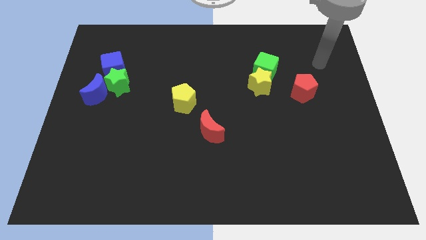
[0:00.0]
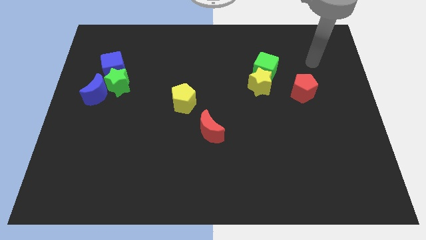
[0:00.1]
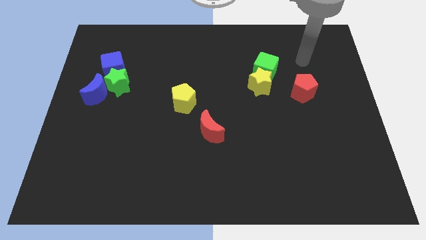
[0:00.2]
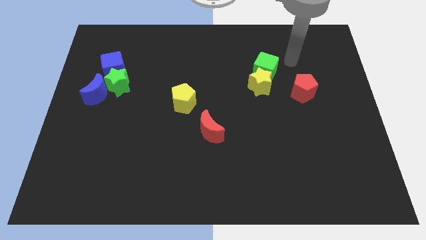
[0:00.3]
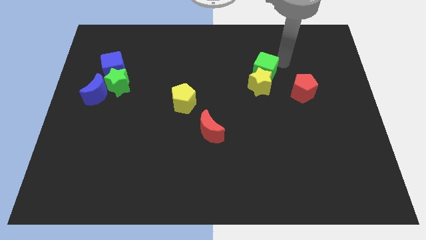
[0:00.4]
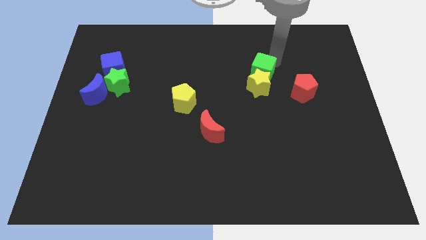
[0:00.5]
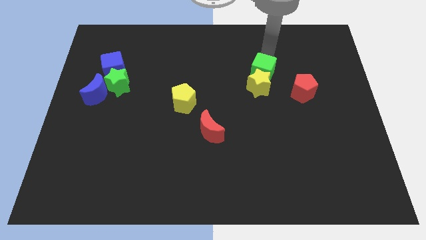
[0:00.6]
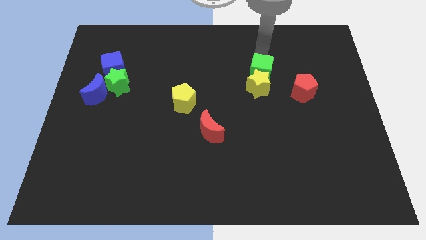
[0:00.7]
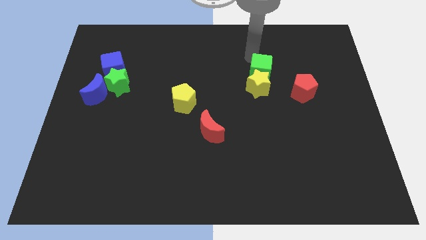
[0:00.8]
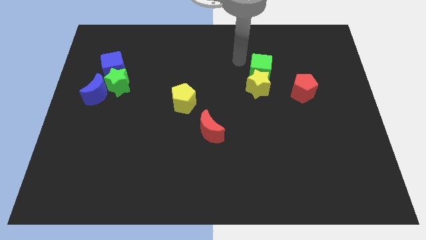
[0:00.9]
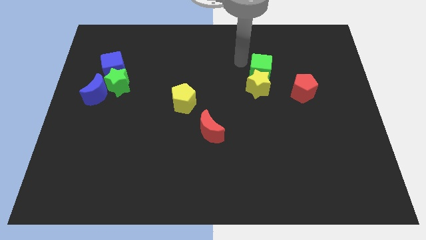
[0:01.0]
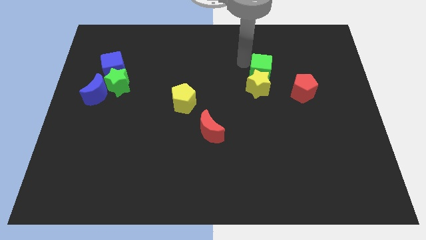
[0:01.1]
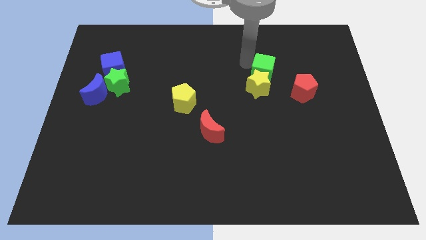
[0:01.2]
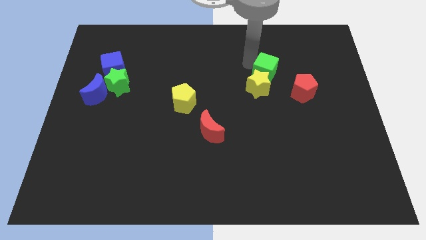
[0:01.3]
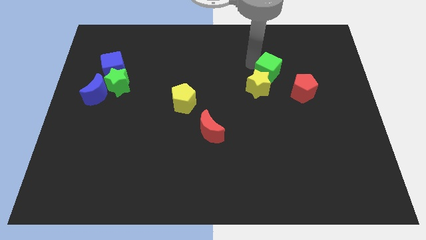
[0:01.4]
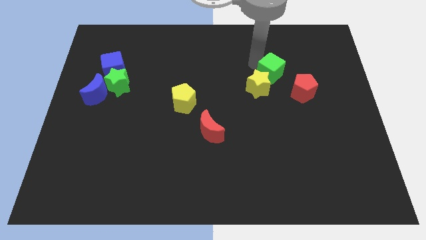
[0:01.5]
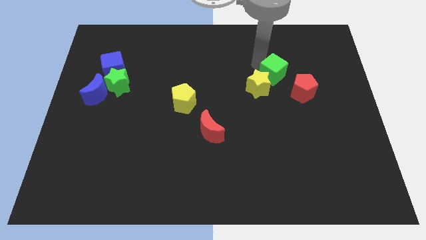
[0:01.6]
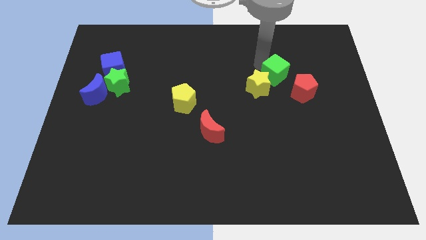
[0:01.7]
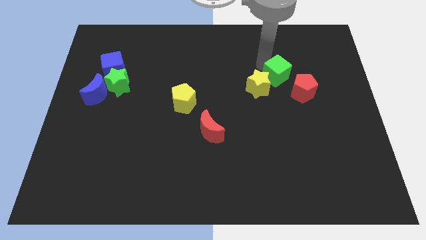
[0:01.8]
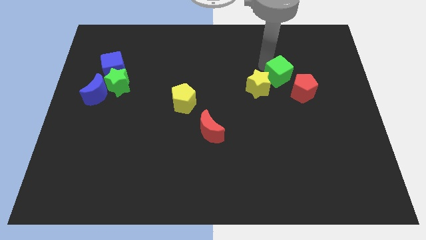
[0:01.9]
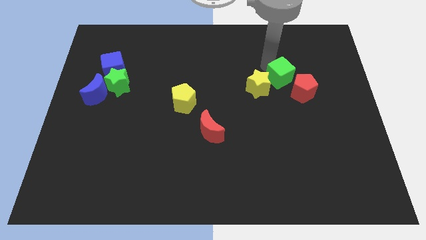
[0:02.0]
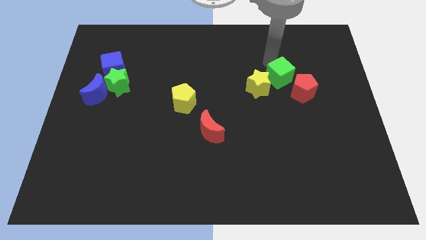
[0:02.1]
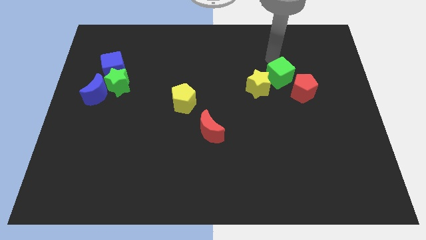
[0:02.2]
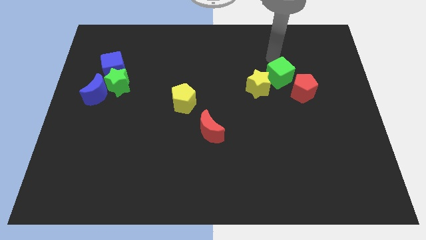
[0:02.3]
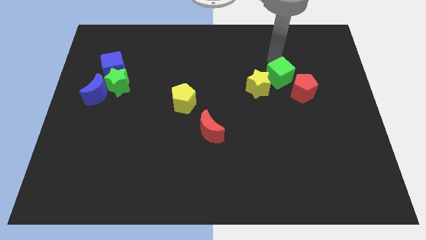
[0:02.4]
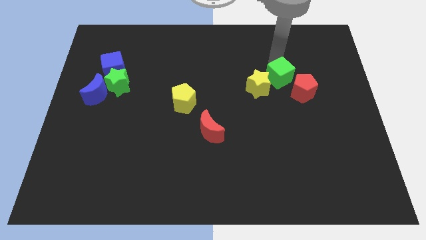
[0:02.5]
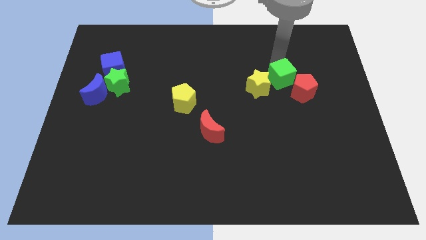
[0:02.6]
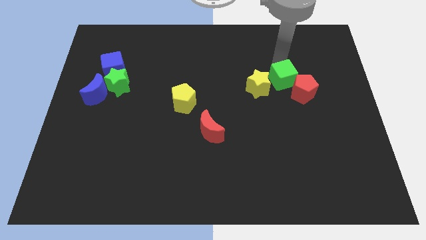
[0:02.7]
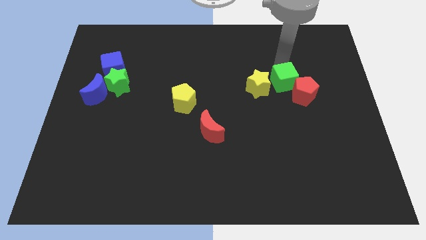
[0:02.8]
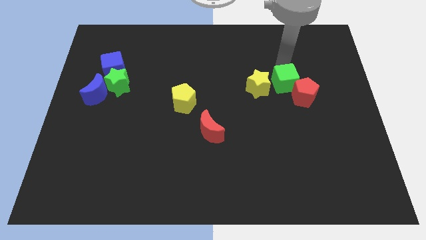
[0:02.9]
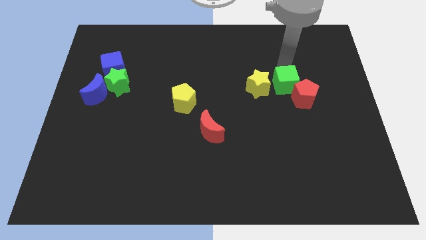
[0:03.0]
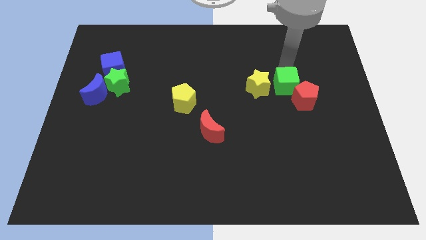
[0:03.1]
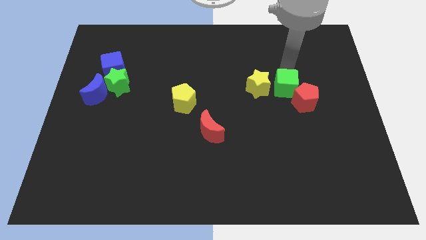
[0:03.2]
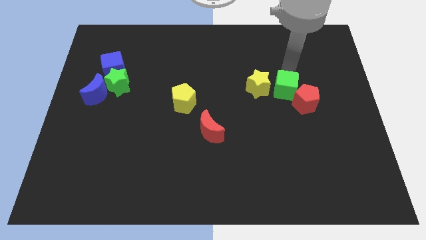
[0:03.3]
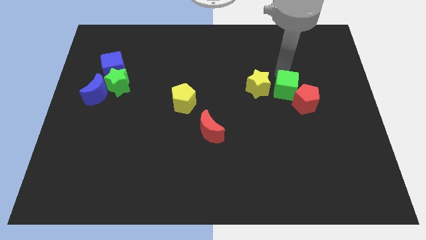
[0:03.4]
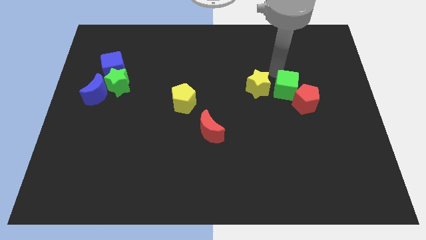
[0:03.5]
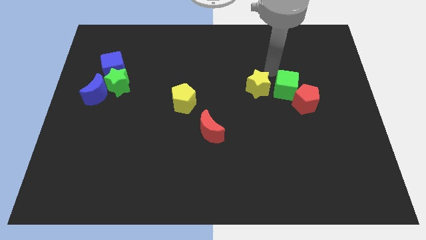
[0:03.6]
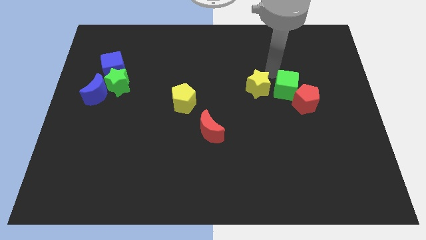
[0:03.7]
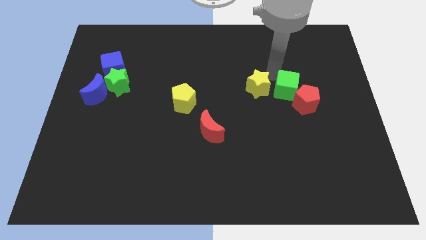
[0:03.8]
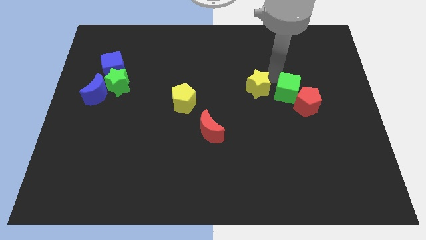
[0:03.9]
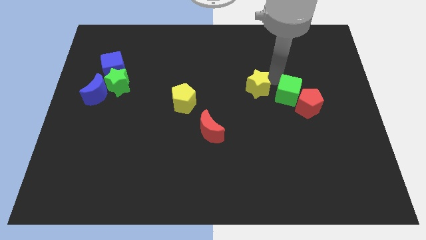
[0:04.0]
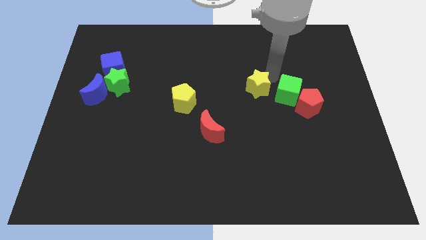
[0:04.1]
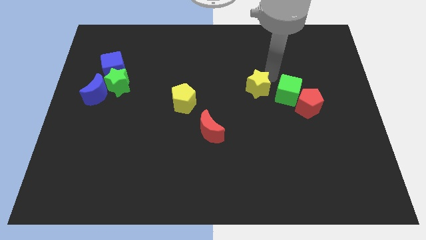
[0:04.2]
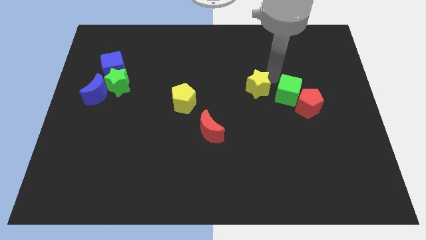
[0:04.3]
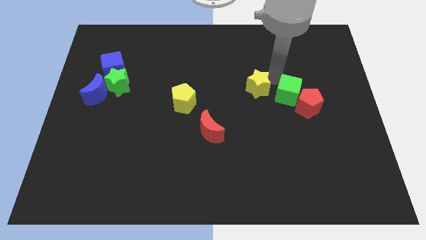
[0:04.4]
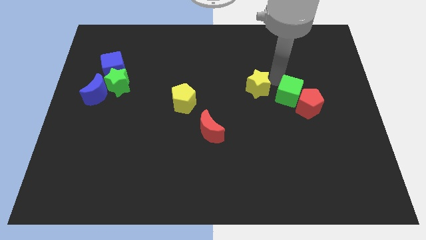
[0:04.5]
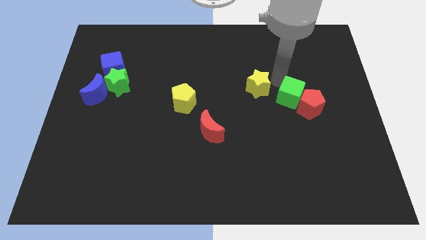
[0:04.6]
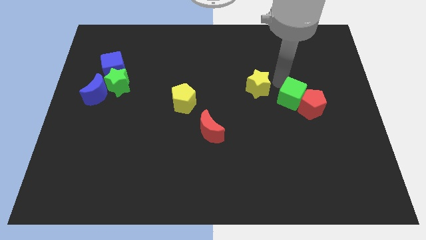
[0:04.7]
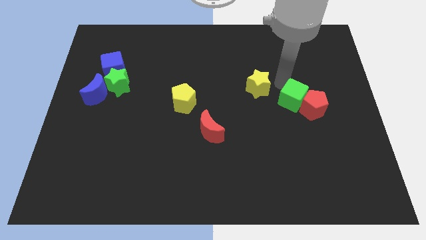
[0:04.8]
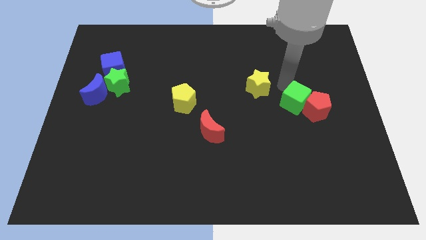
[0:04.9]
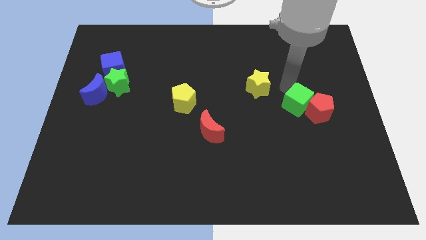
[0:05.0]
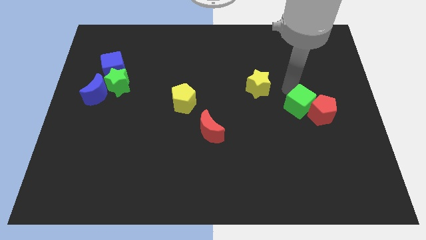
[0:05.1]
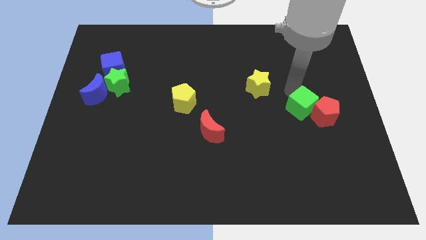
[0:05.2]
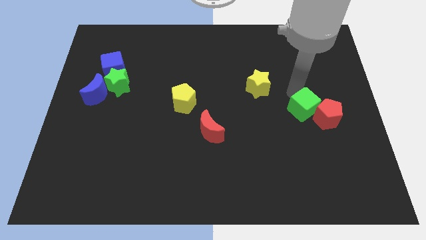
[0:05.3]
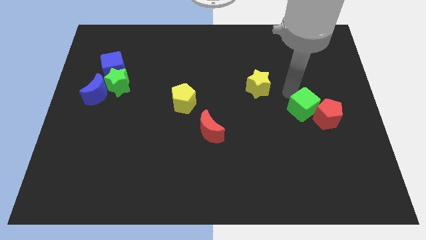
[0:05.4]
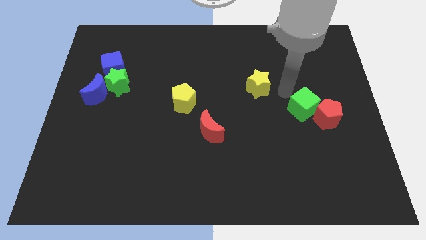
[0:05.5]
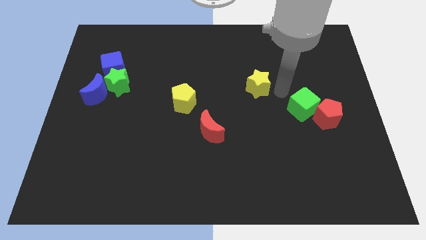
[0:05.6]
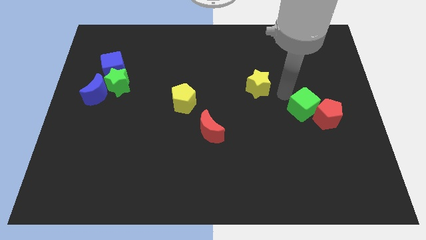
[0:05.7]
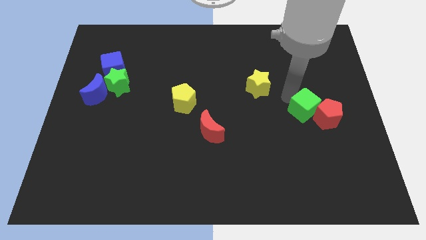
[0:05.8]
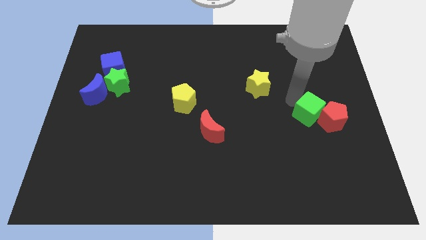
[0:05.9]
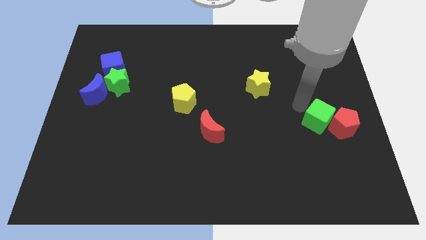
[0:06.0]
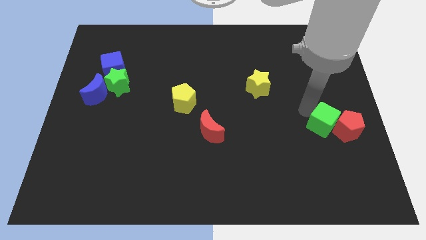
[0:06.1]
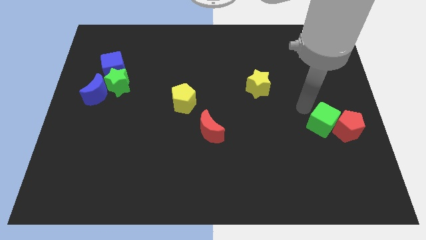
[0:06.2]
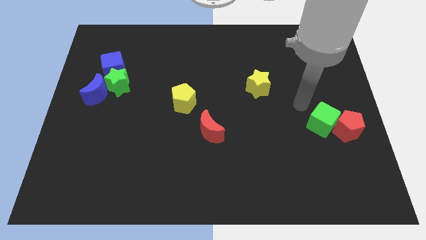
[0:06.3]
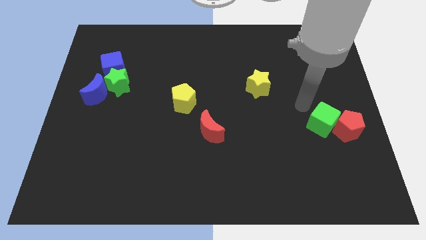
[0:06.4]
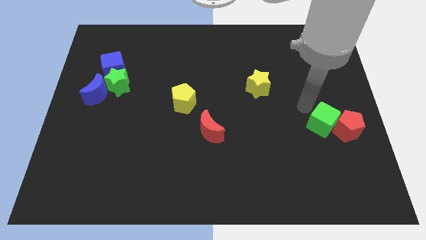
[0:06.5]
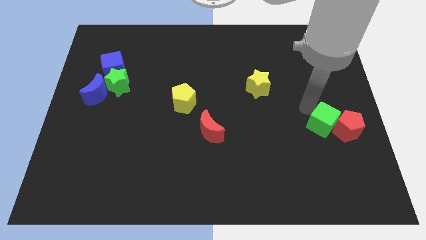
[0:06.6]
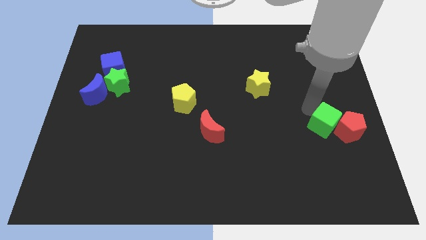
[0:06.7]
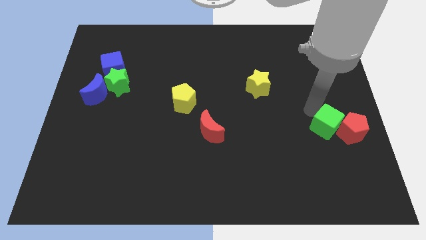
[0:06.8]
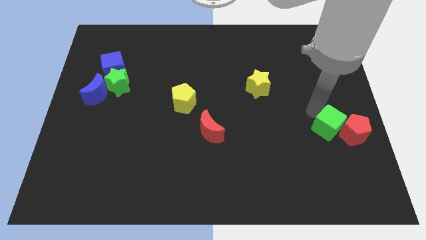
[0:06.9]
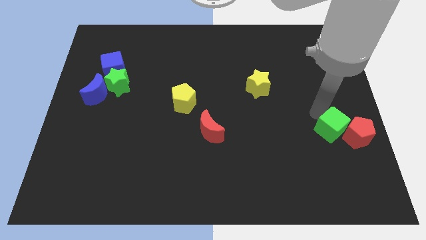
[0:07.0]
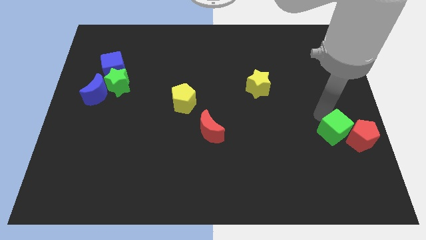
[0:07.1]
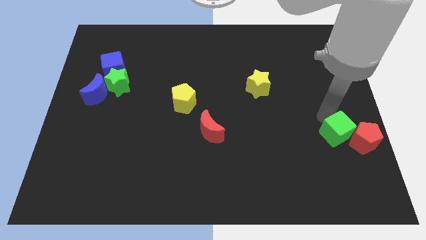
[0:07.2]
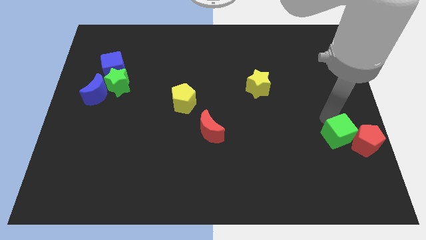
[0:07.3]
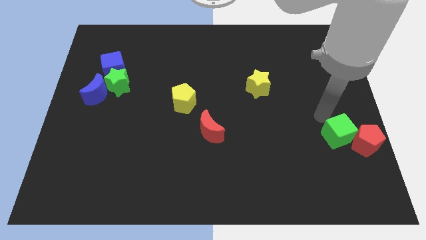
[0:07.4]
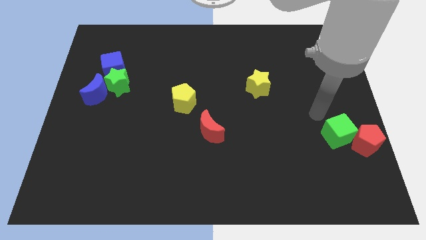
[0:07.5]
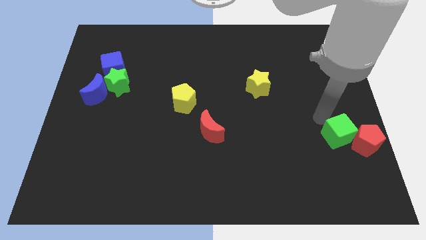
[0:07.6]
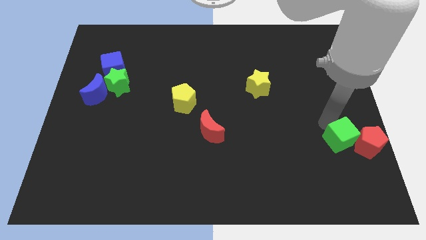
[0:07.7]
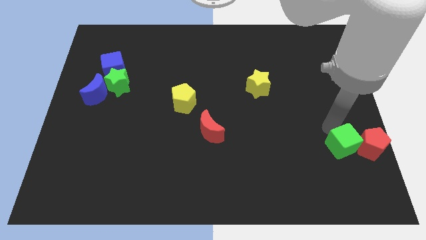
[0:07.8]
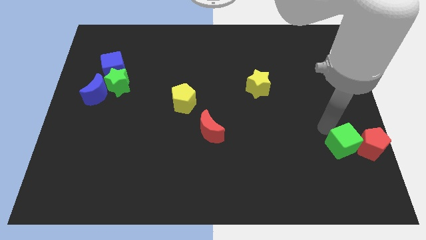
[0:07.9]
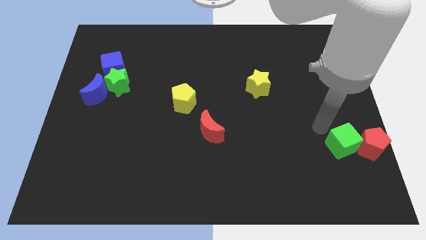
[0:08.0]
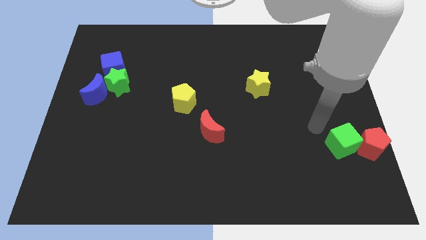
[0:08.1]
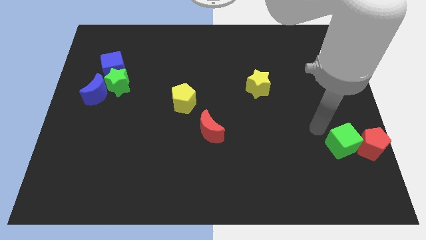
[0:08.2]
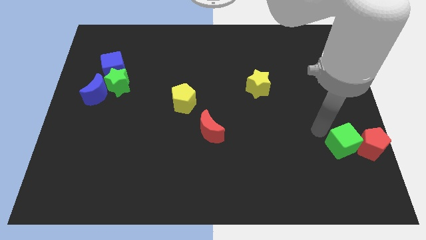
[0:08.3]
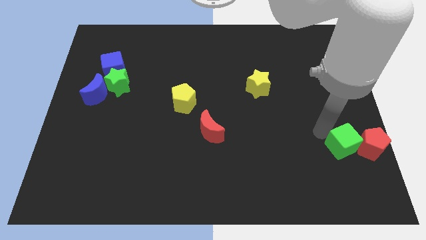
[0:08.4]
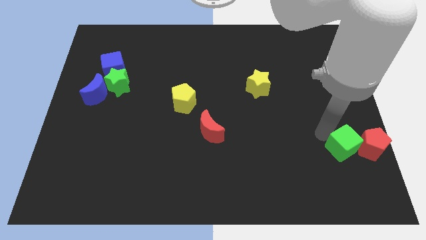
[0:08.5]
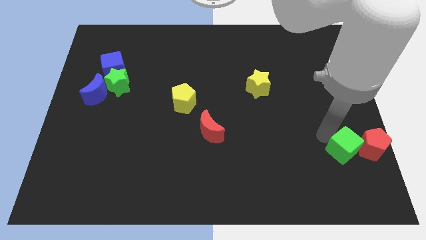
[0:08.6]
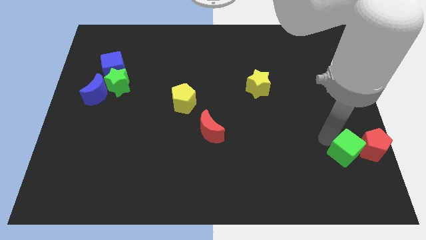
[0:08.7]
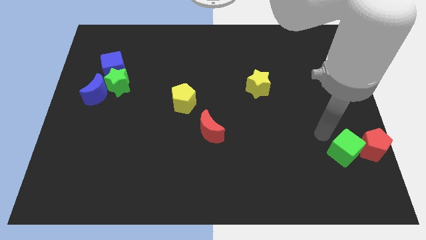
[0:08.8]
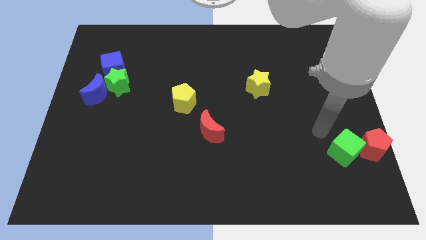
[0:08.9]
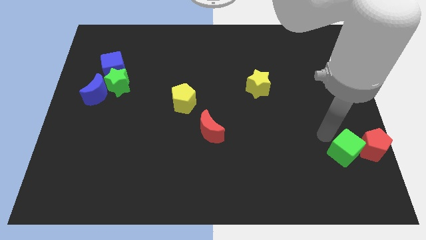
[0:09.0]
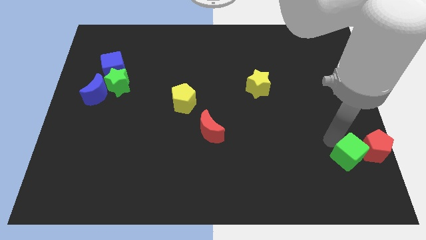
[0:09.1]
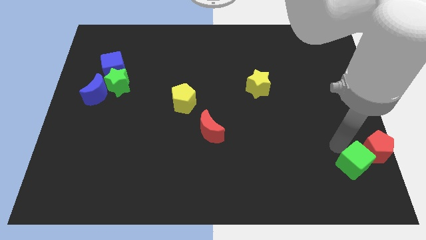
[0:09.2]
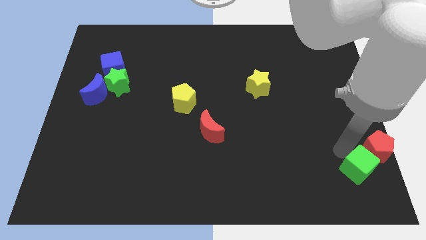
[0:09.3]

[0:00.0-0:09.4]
put the green cube to the bottom right
